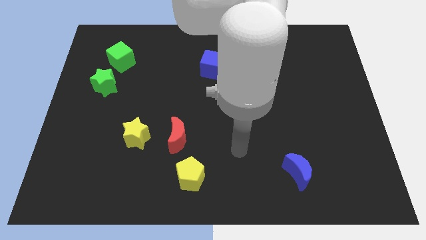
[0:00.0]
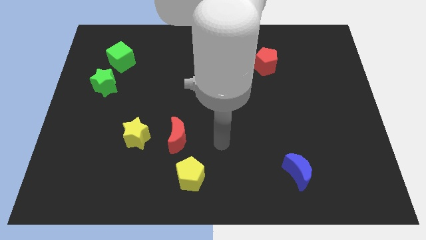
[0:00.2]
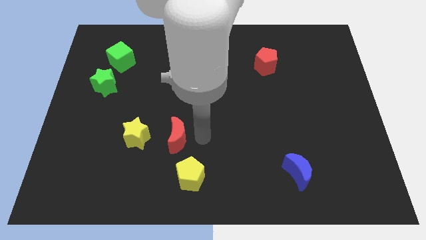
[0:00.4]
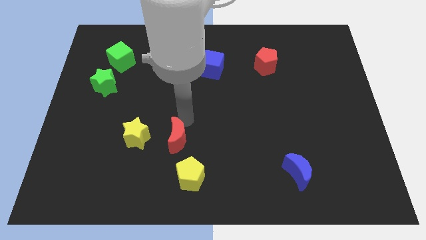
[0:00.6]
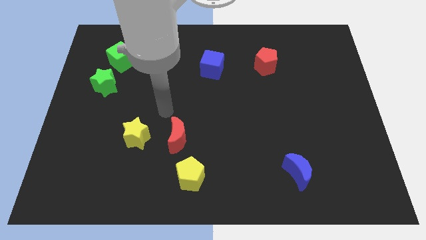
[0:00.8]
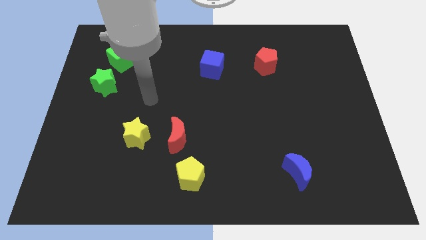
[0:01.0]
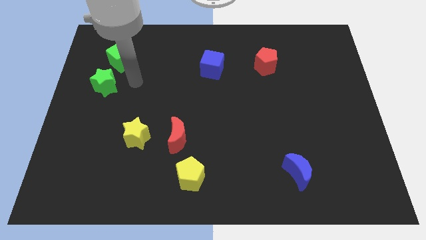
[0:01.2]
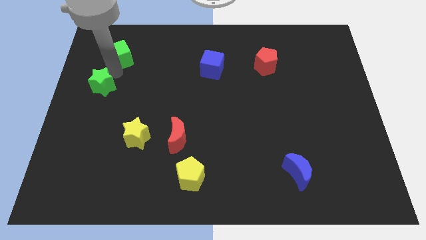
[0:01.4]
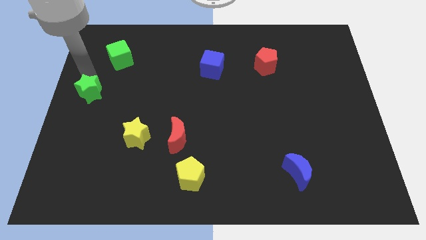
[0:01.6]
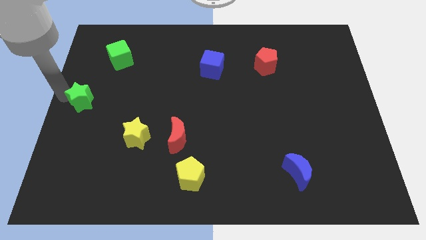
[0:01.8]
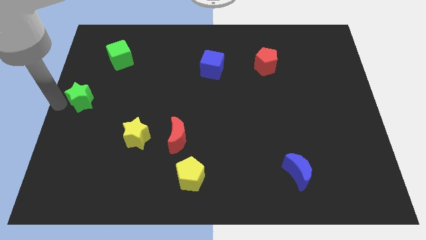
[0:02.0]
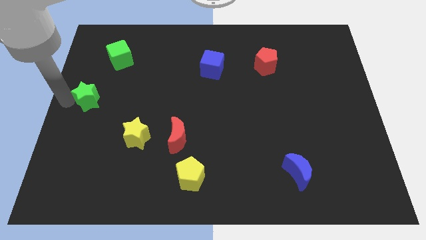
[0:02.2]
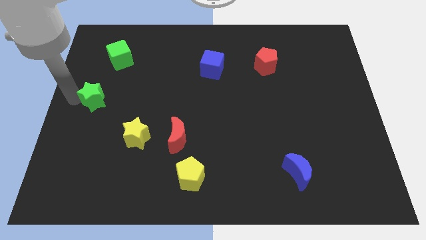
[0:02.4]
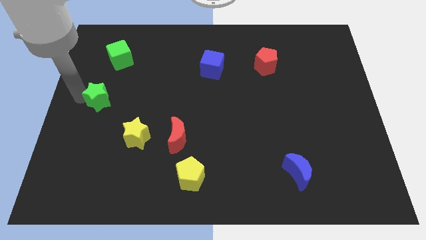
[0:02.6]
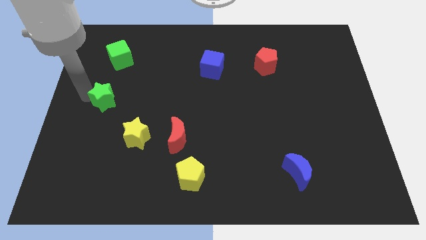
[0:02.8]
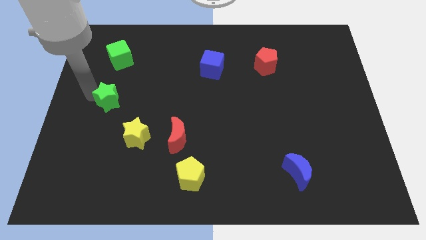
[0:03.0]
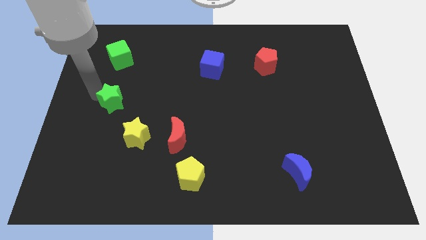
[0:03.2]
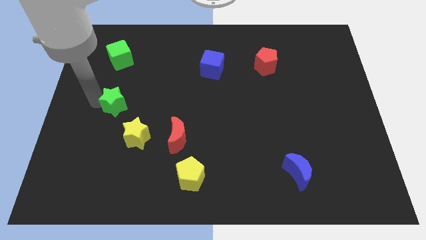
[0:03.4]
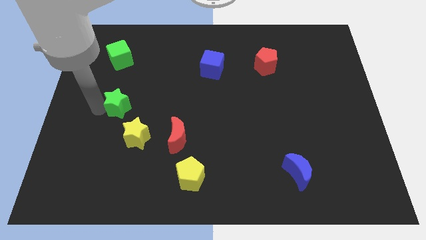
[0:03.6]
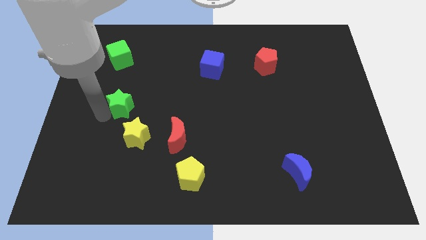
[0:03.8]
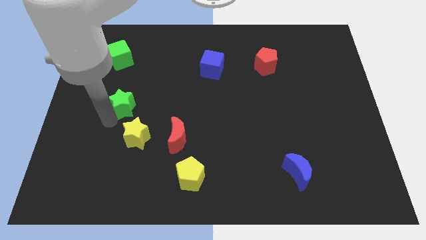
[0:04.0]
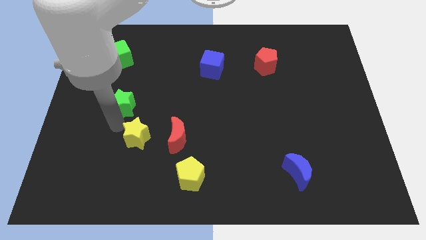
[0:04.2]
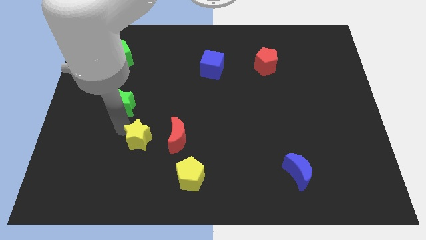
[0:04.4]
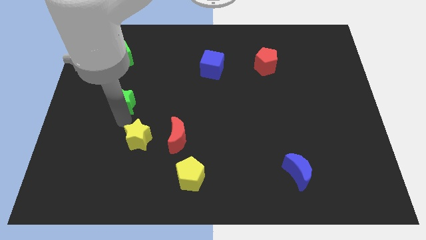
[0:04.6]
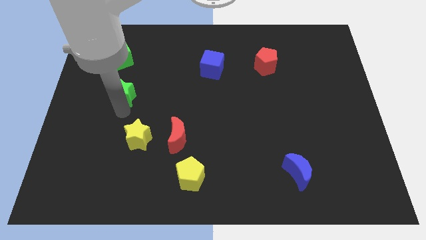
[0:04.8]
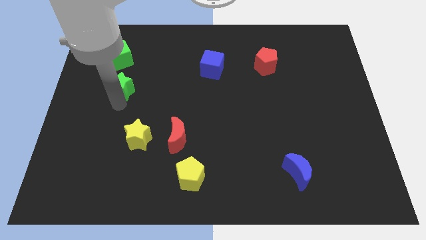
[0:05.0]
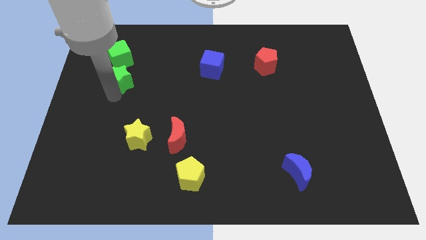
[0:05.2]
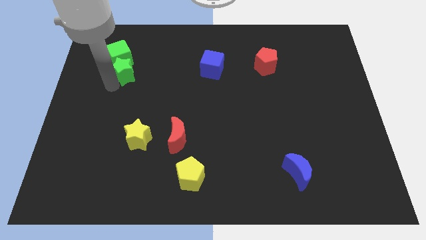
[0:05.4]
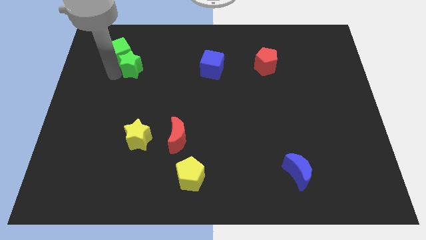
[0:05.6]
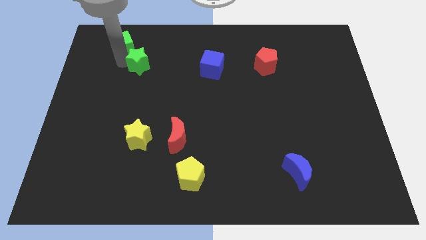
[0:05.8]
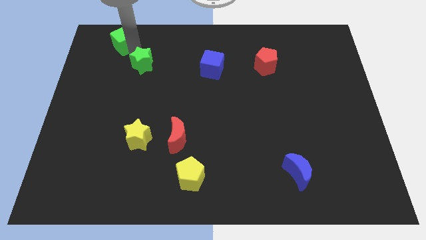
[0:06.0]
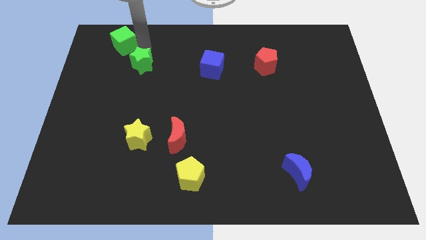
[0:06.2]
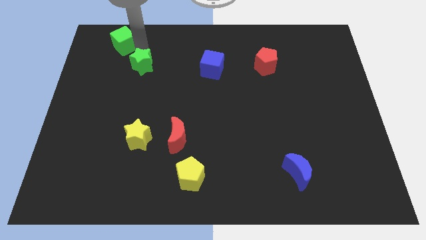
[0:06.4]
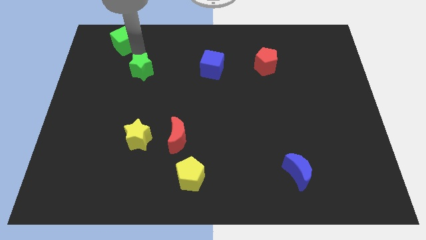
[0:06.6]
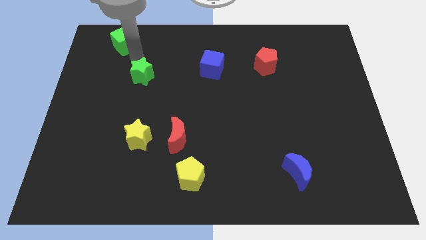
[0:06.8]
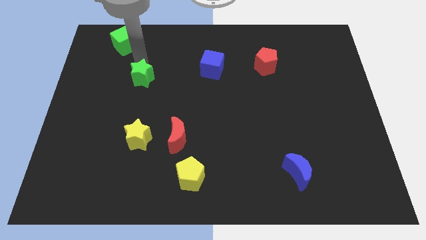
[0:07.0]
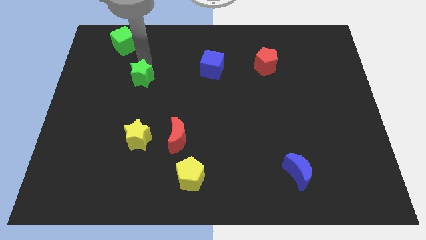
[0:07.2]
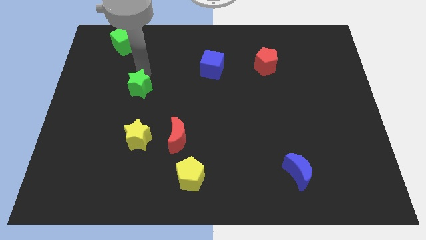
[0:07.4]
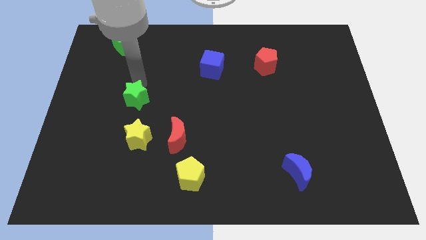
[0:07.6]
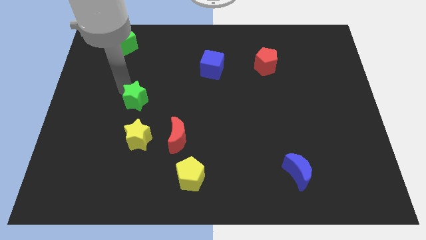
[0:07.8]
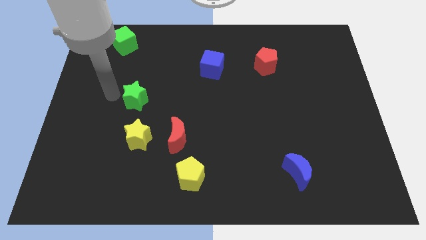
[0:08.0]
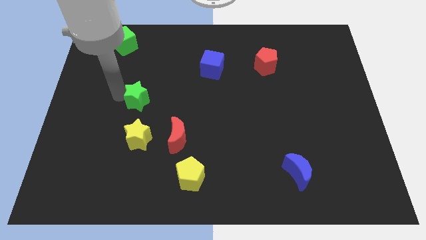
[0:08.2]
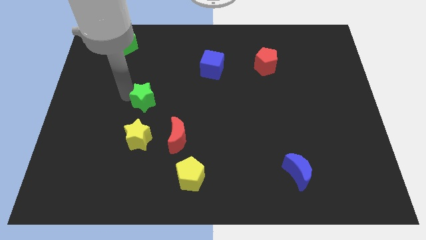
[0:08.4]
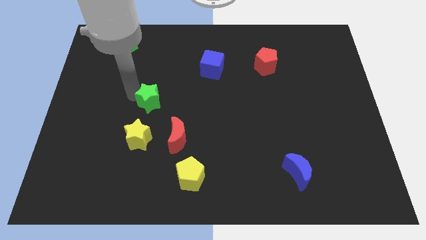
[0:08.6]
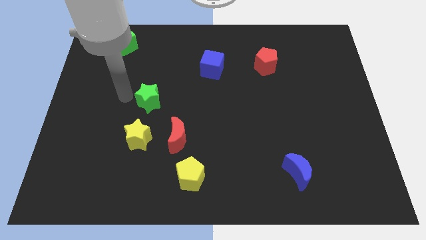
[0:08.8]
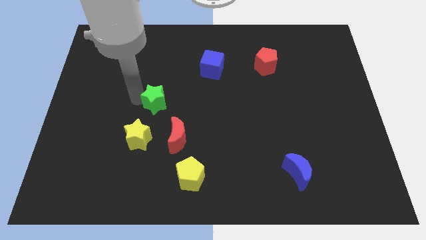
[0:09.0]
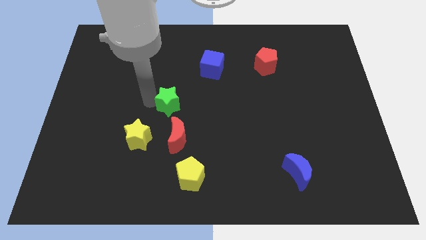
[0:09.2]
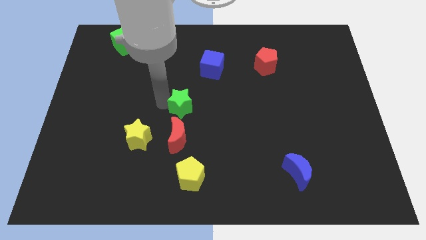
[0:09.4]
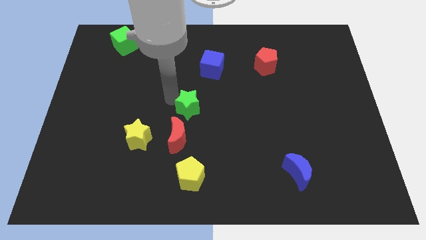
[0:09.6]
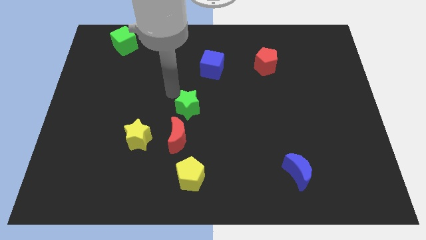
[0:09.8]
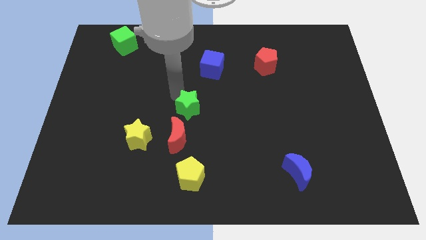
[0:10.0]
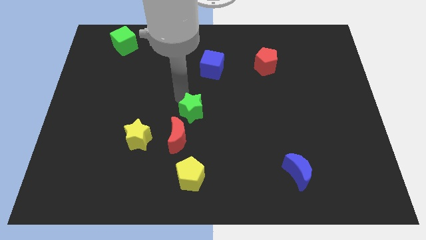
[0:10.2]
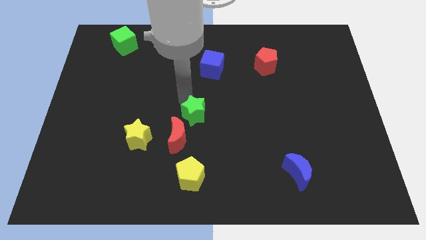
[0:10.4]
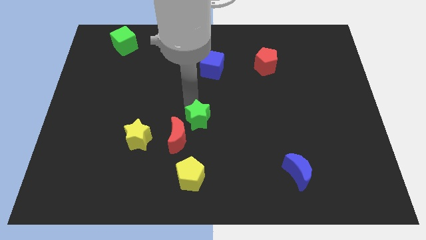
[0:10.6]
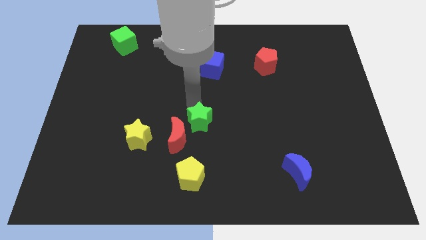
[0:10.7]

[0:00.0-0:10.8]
move the green star to the right of the red moon

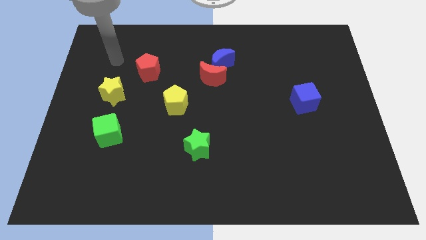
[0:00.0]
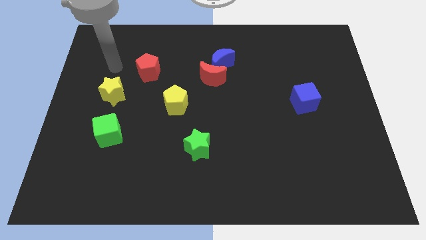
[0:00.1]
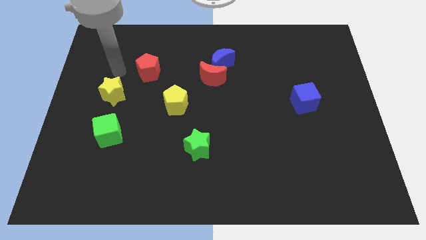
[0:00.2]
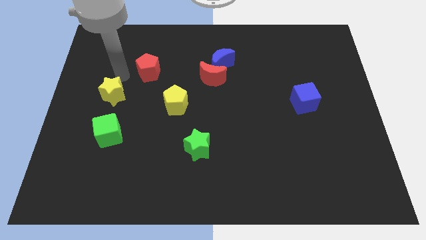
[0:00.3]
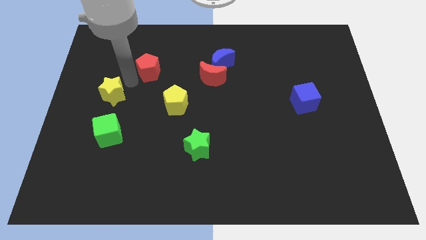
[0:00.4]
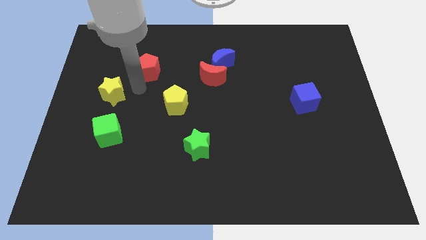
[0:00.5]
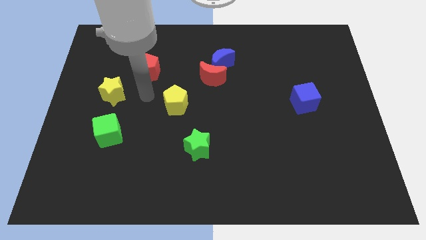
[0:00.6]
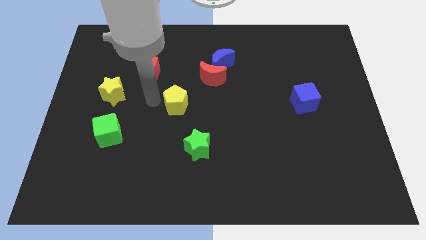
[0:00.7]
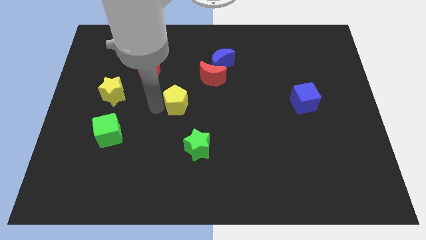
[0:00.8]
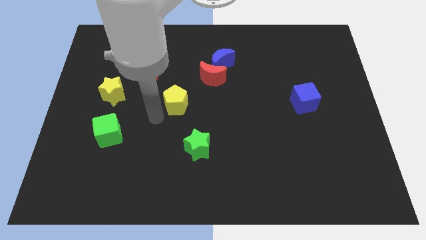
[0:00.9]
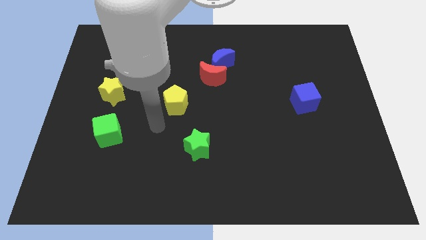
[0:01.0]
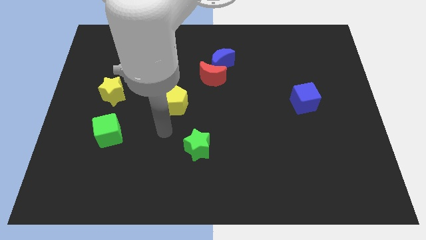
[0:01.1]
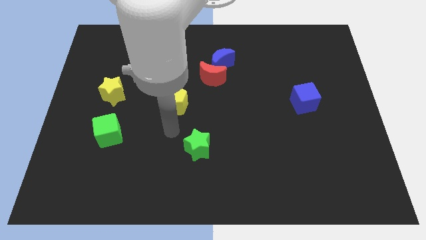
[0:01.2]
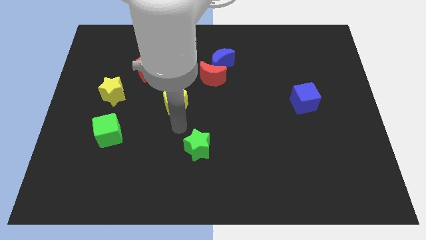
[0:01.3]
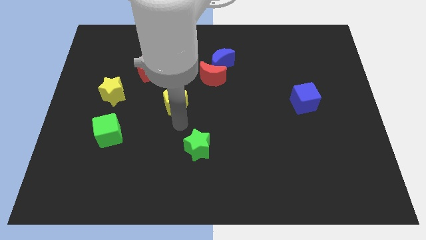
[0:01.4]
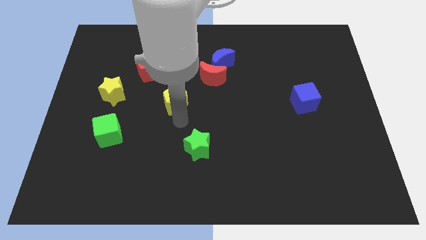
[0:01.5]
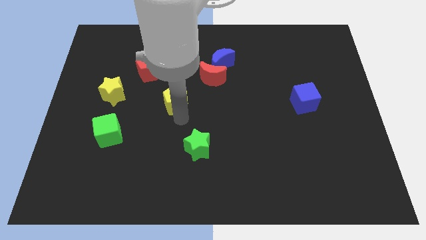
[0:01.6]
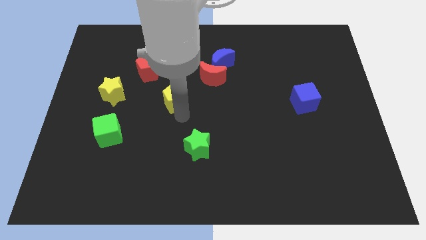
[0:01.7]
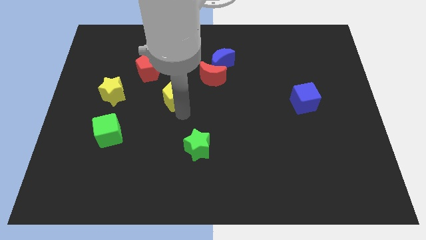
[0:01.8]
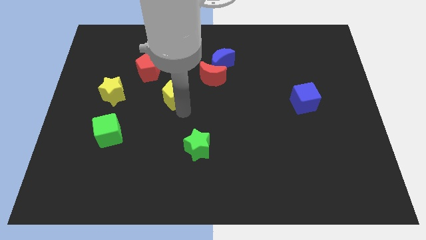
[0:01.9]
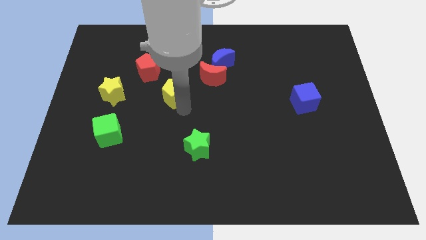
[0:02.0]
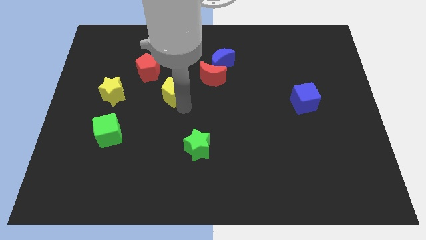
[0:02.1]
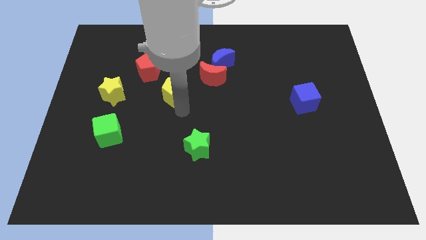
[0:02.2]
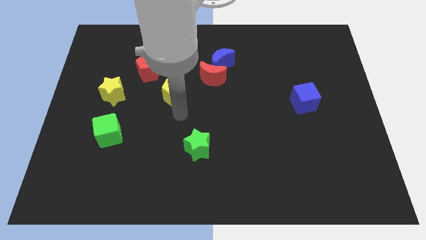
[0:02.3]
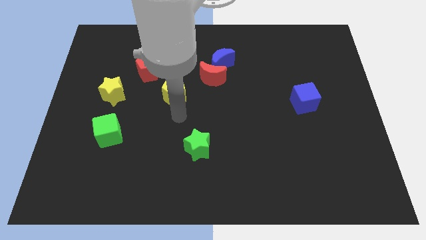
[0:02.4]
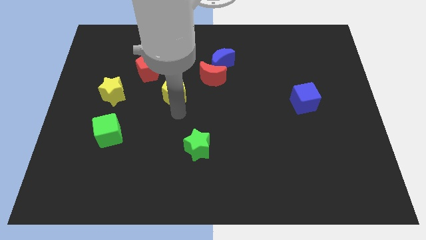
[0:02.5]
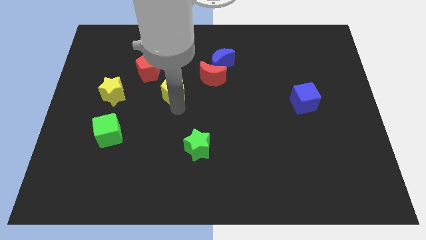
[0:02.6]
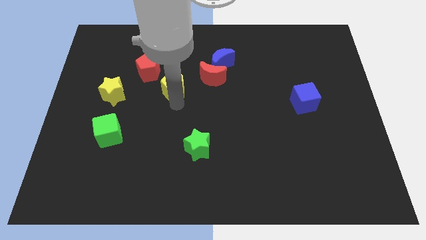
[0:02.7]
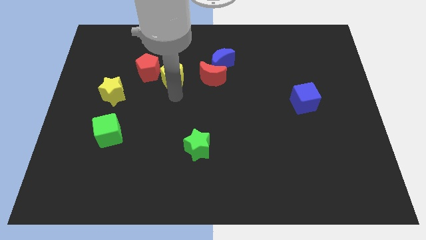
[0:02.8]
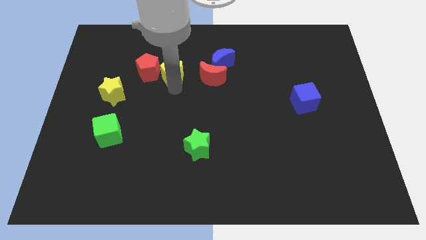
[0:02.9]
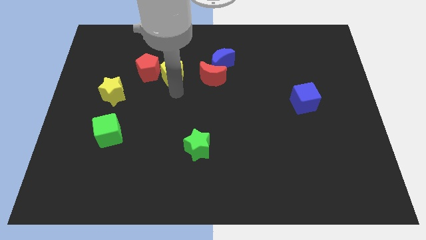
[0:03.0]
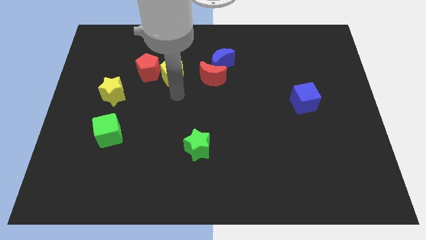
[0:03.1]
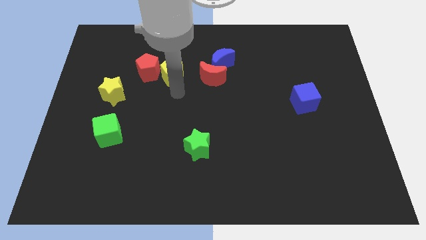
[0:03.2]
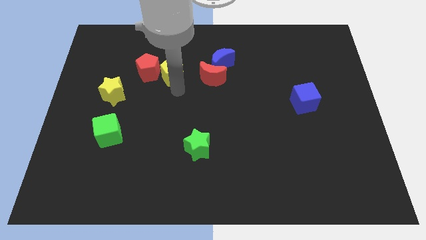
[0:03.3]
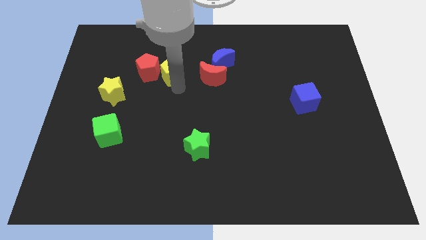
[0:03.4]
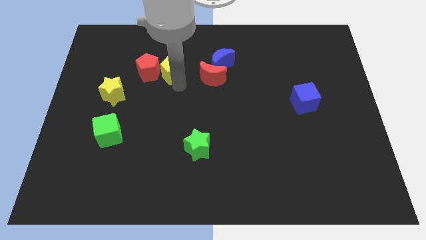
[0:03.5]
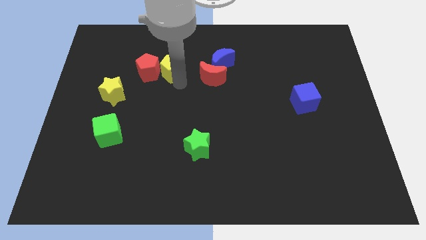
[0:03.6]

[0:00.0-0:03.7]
push the yellow pentagon diagonally up and to the right of the red pentagon
